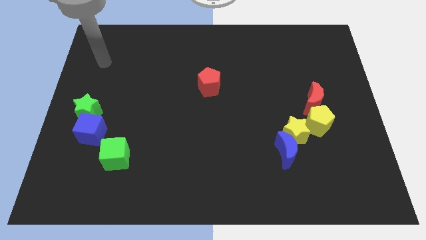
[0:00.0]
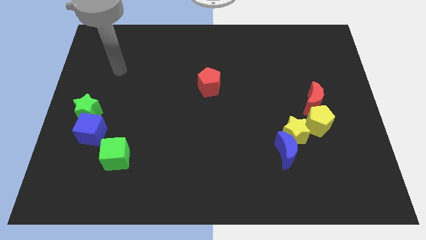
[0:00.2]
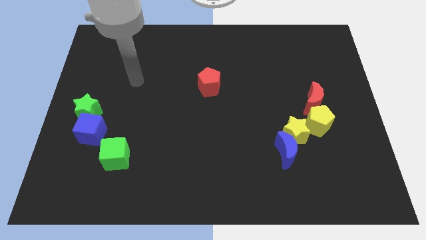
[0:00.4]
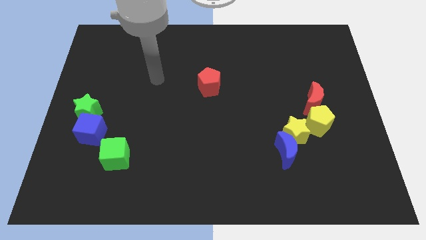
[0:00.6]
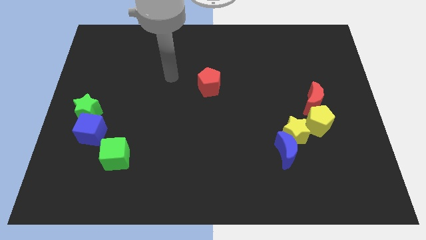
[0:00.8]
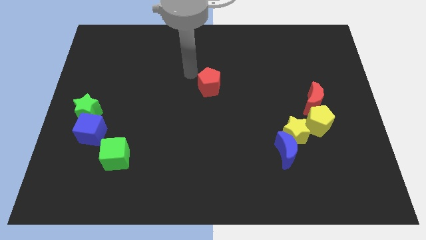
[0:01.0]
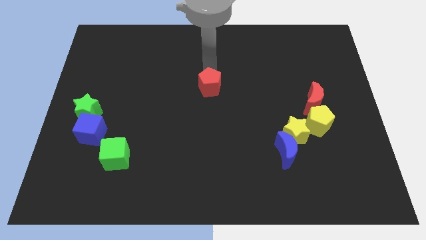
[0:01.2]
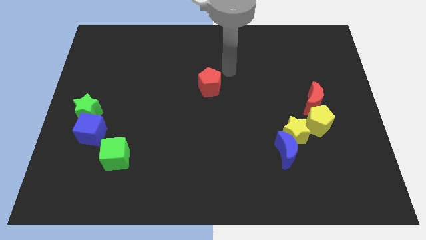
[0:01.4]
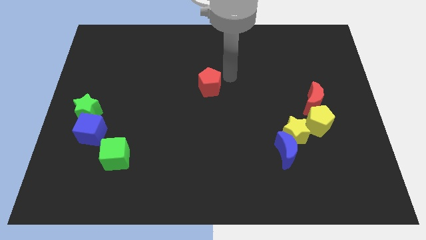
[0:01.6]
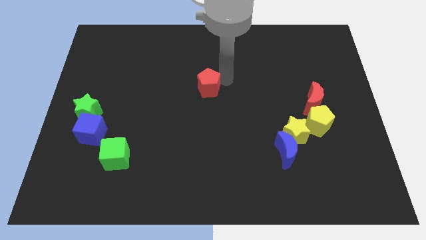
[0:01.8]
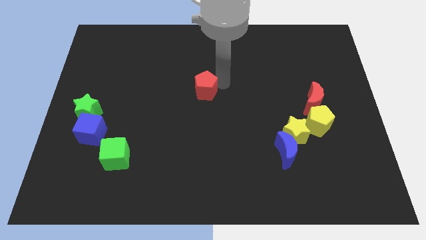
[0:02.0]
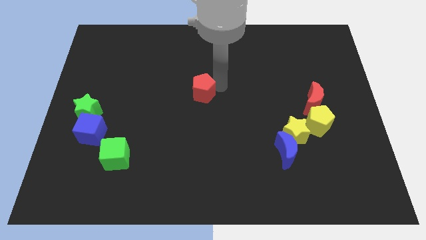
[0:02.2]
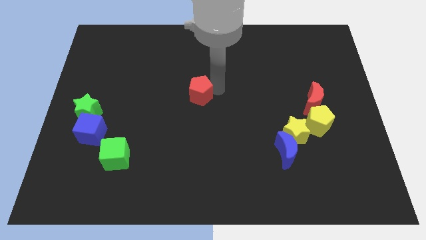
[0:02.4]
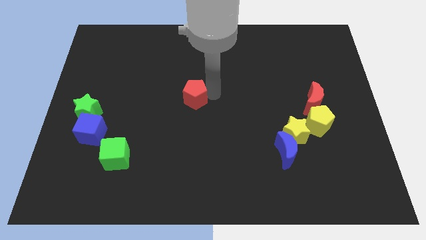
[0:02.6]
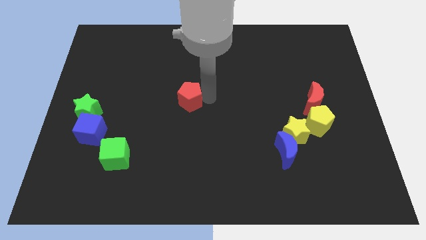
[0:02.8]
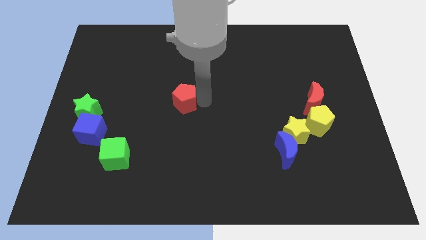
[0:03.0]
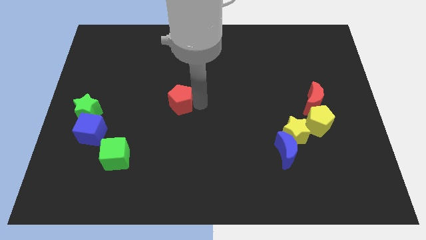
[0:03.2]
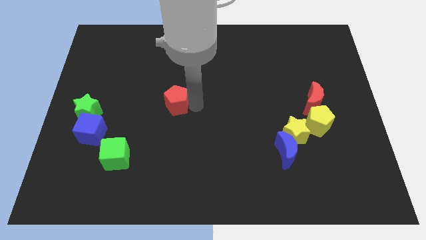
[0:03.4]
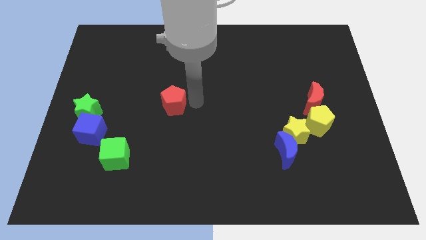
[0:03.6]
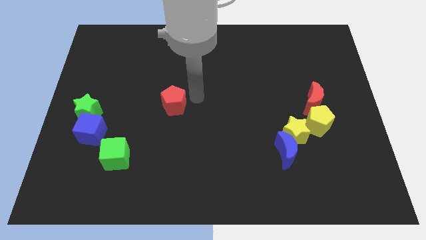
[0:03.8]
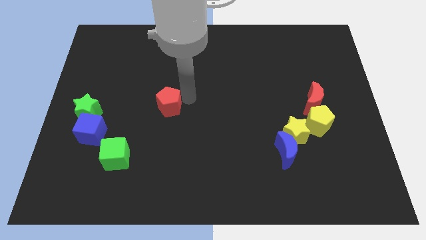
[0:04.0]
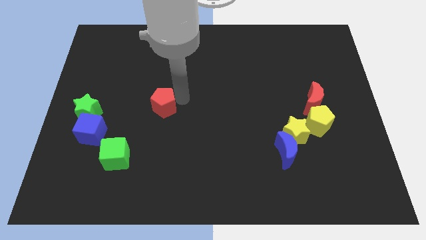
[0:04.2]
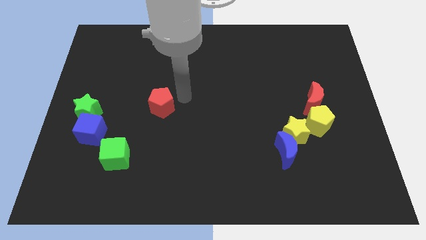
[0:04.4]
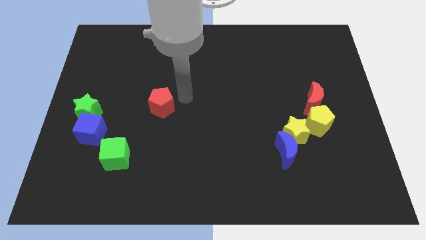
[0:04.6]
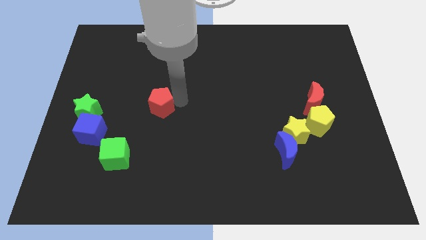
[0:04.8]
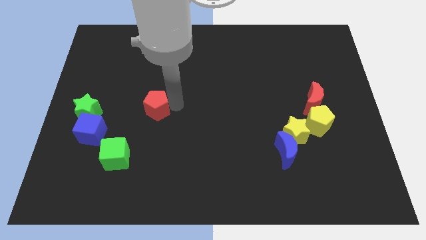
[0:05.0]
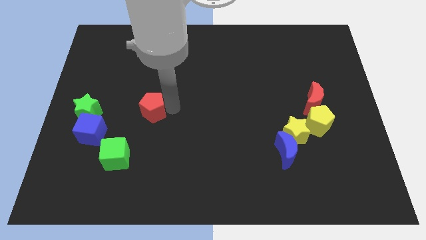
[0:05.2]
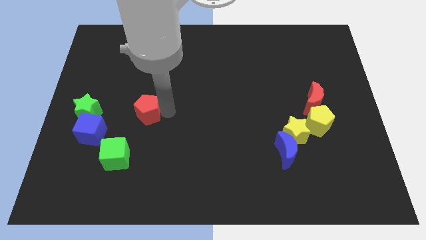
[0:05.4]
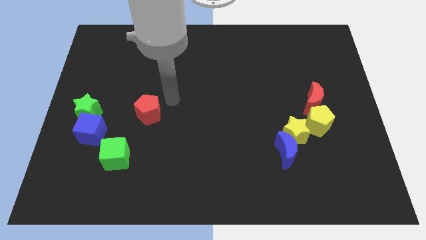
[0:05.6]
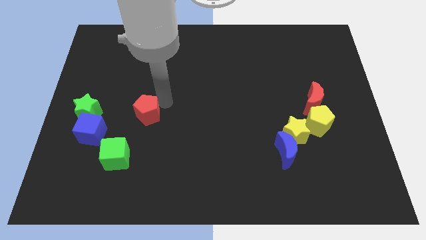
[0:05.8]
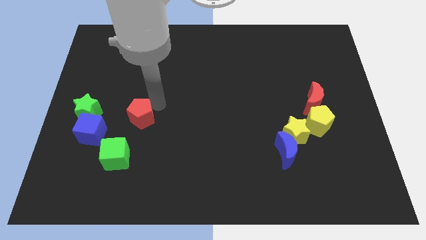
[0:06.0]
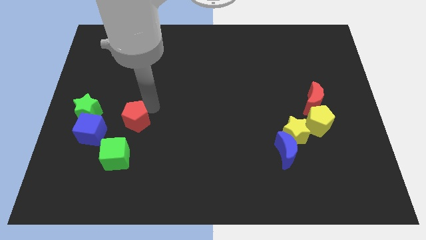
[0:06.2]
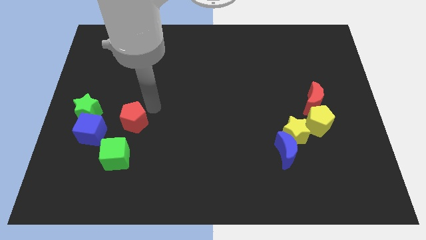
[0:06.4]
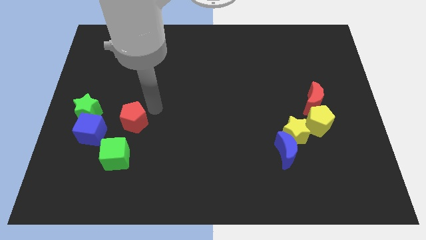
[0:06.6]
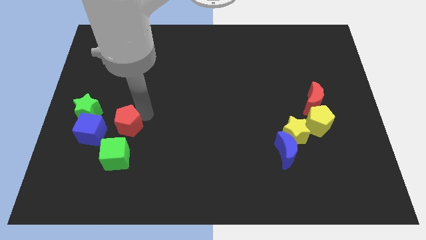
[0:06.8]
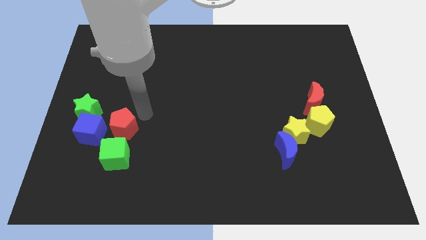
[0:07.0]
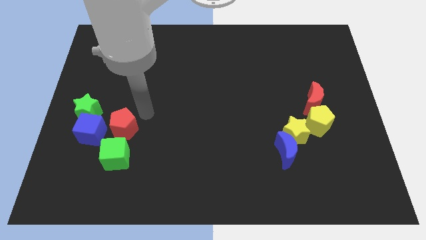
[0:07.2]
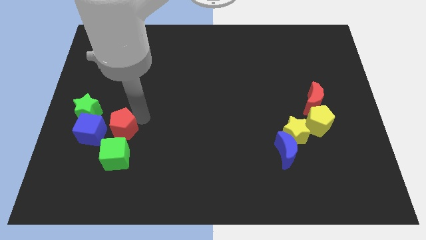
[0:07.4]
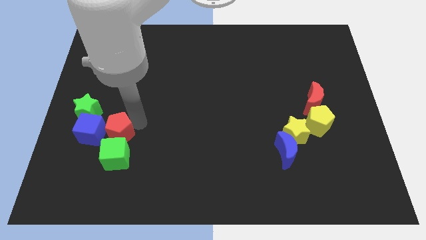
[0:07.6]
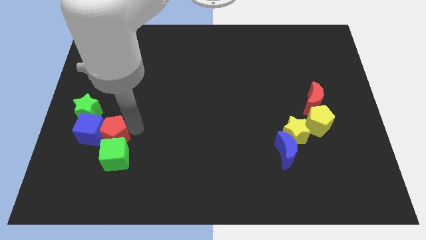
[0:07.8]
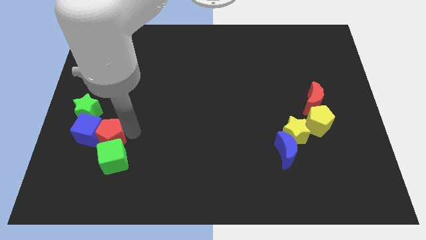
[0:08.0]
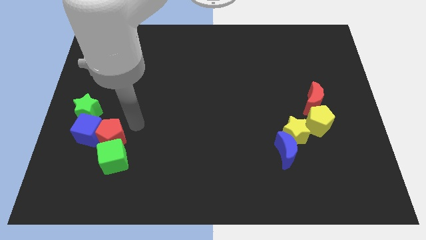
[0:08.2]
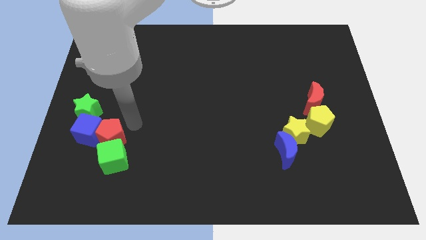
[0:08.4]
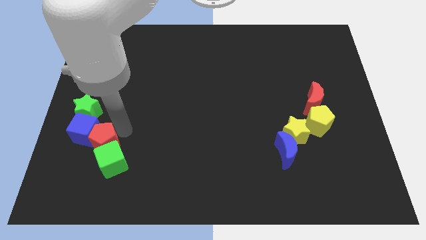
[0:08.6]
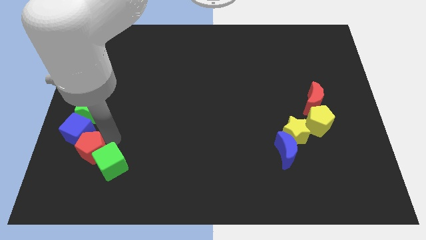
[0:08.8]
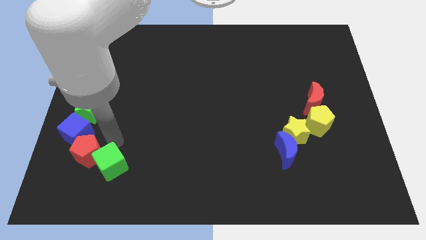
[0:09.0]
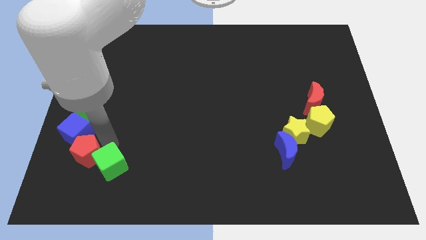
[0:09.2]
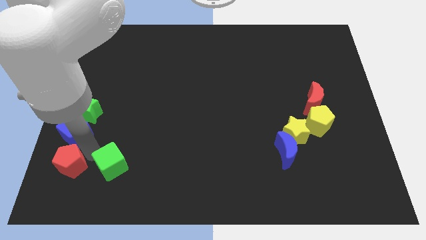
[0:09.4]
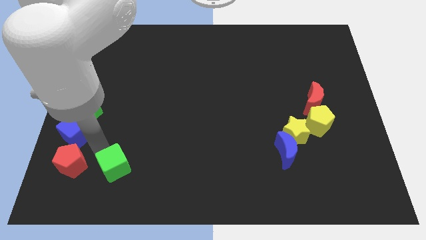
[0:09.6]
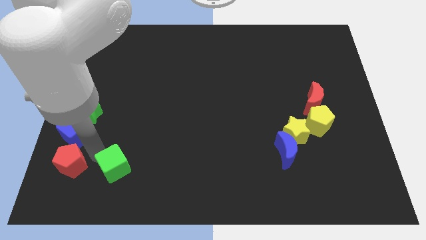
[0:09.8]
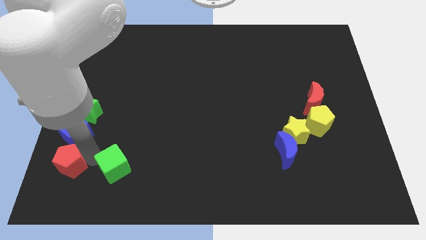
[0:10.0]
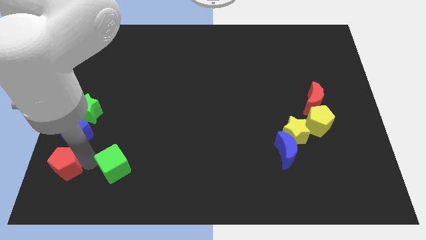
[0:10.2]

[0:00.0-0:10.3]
push the red pentagon to the lower left corner

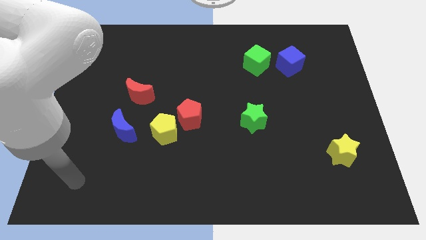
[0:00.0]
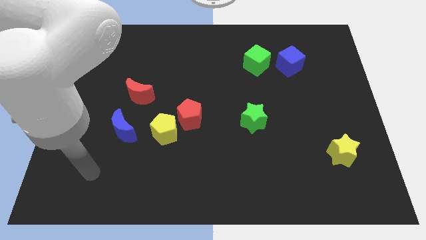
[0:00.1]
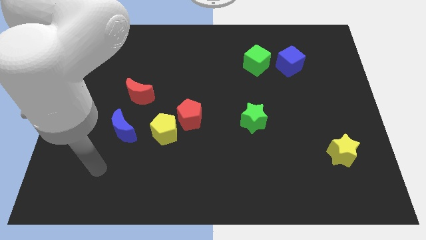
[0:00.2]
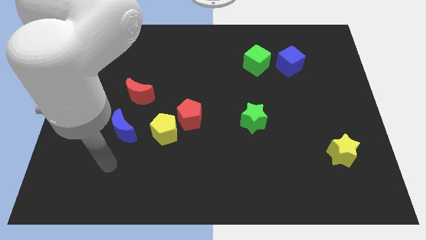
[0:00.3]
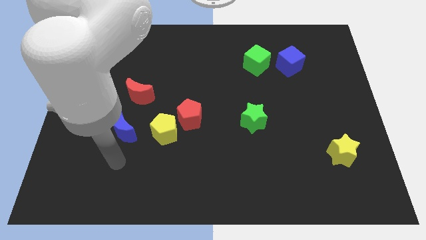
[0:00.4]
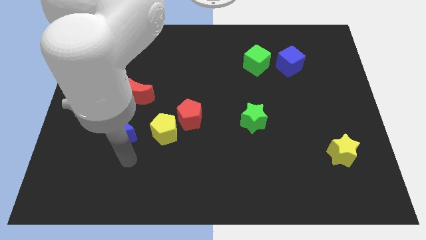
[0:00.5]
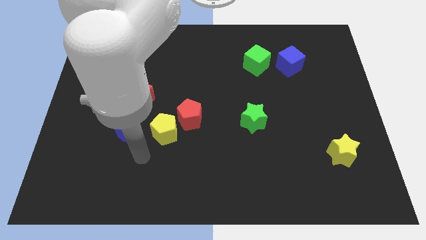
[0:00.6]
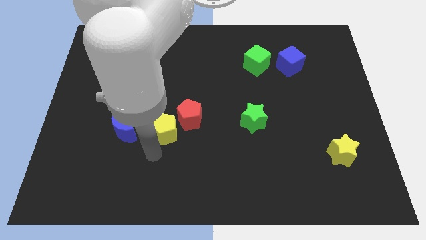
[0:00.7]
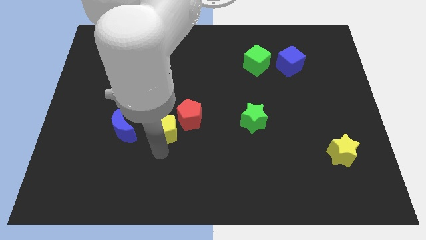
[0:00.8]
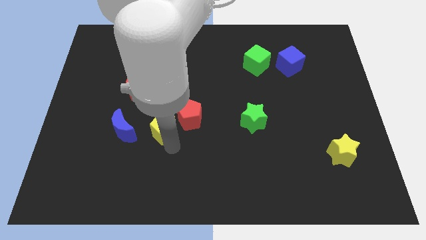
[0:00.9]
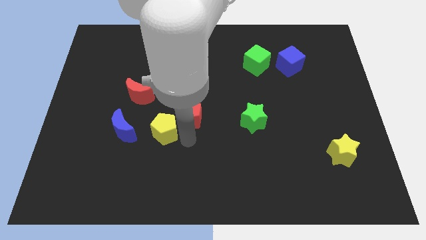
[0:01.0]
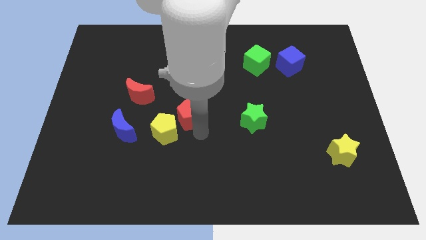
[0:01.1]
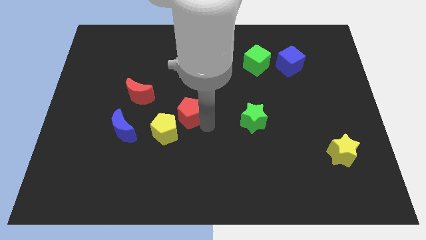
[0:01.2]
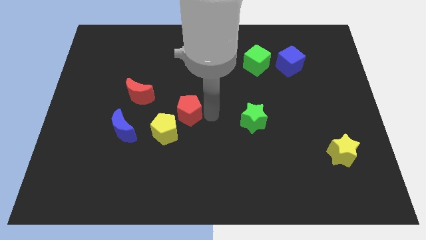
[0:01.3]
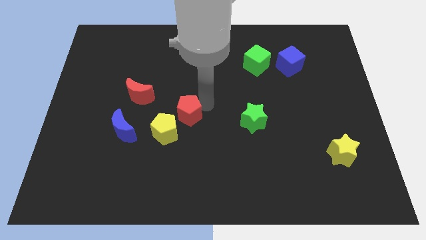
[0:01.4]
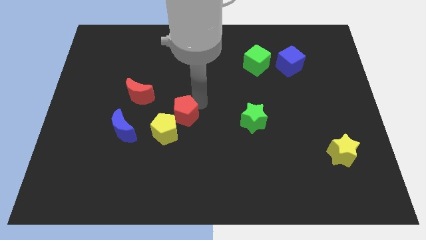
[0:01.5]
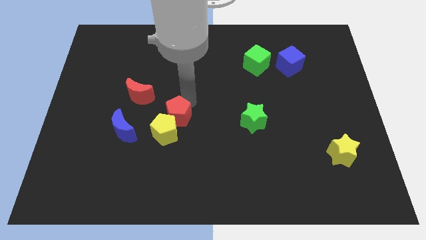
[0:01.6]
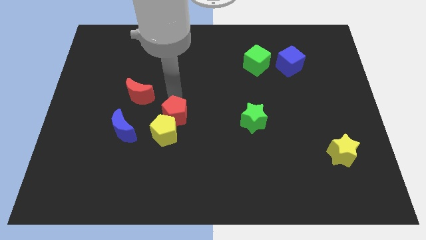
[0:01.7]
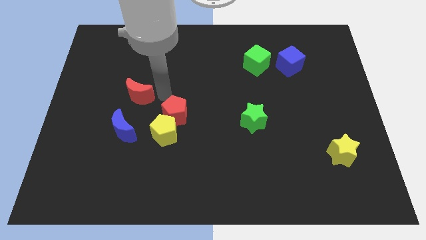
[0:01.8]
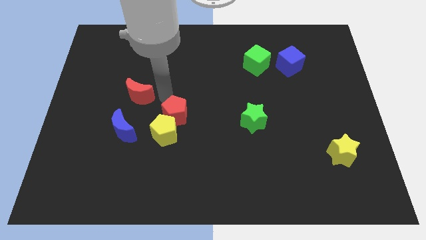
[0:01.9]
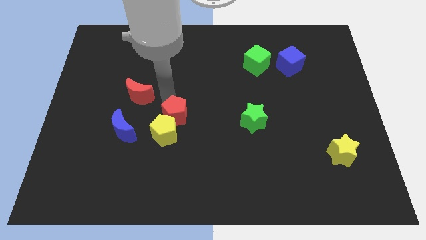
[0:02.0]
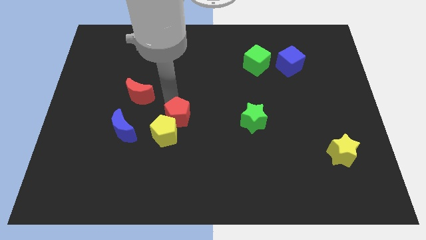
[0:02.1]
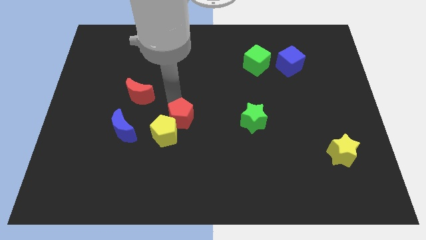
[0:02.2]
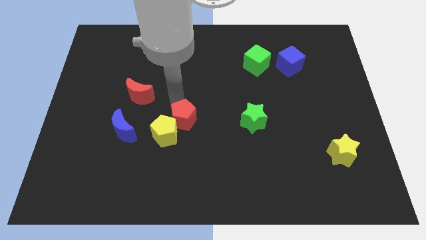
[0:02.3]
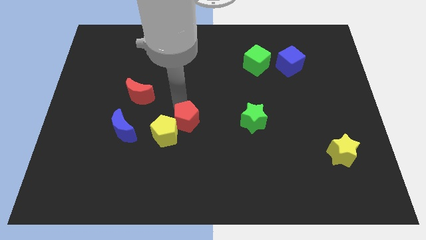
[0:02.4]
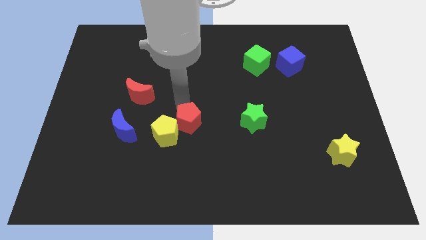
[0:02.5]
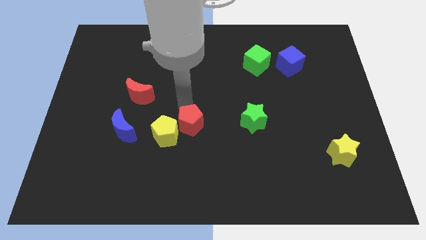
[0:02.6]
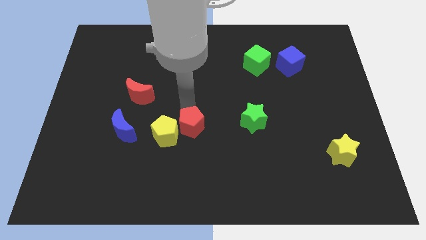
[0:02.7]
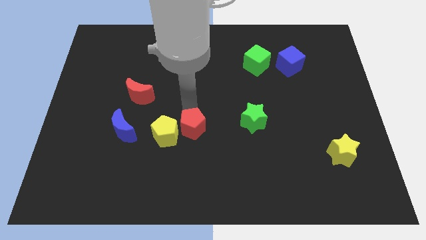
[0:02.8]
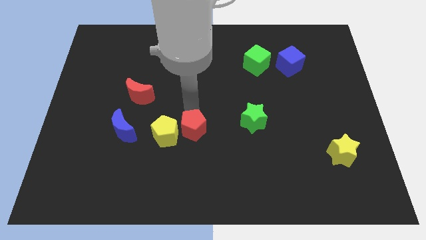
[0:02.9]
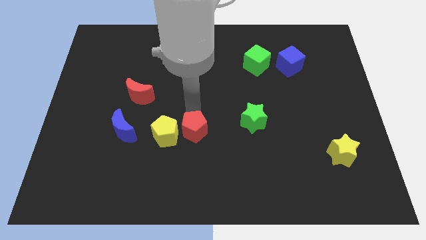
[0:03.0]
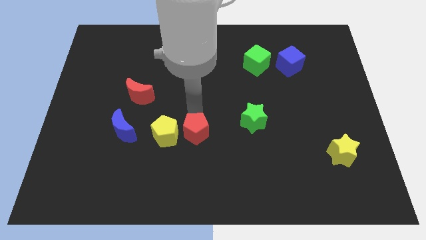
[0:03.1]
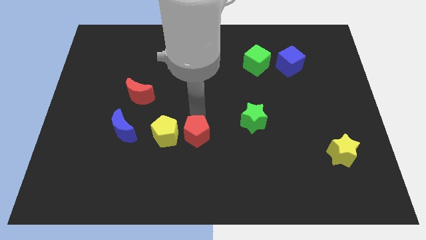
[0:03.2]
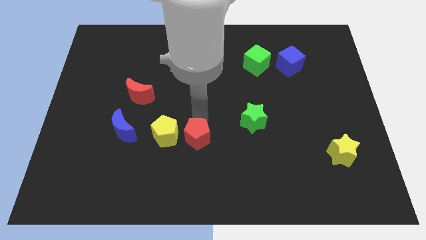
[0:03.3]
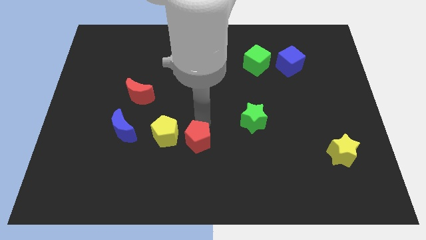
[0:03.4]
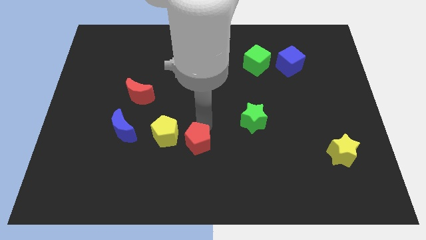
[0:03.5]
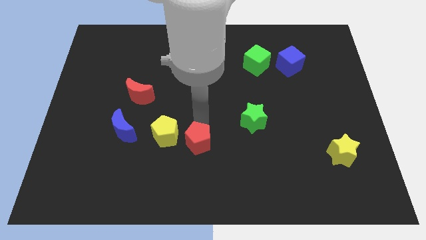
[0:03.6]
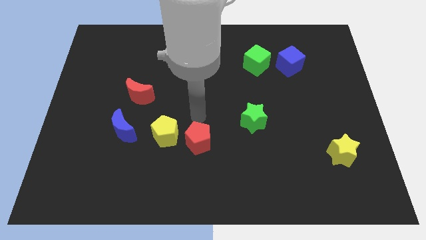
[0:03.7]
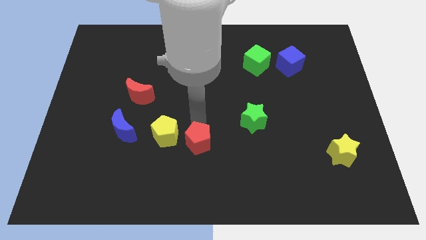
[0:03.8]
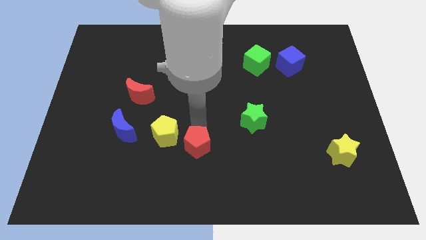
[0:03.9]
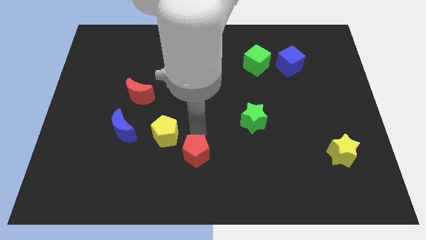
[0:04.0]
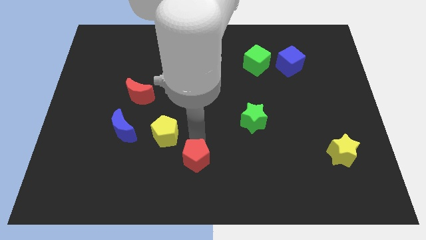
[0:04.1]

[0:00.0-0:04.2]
slide the red pentagon to the bottom side
